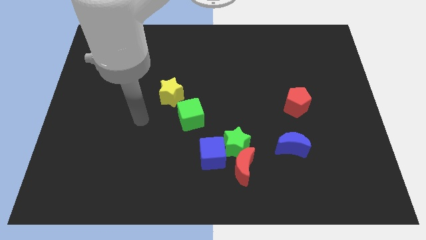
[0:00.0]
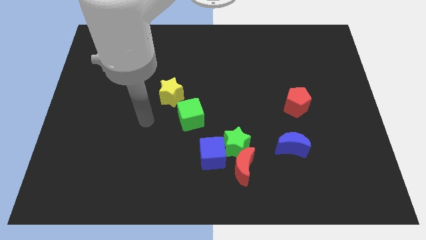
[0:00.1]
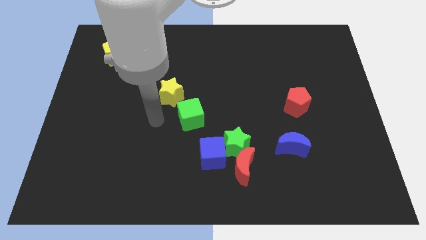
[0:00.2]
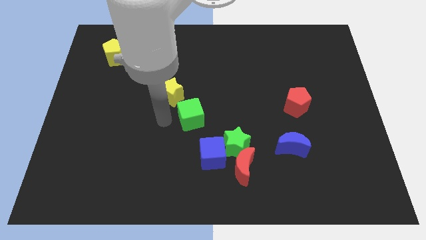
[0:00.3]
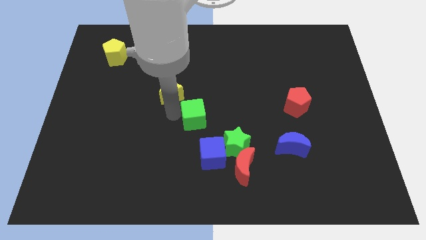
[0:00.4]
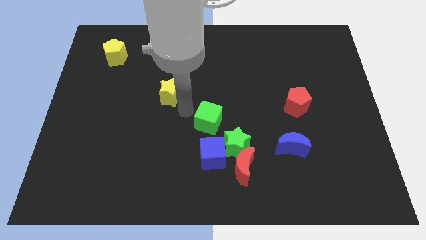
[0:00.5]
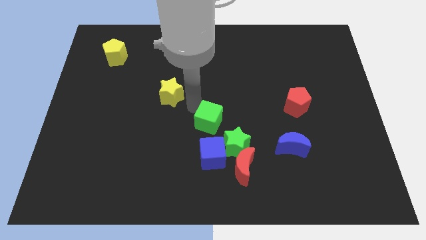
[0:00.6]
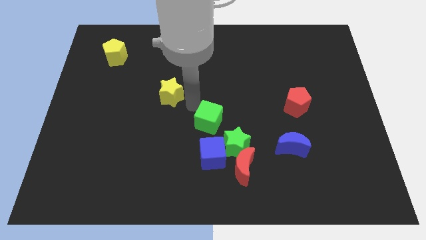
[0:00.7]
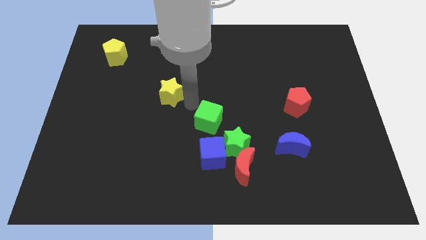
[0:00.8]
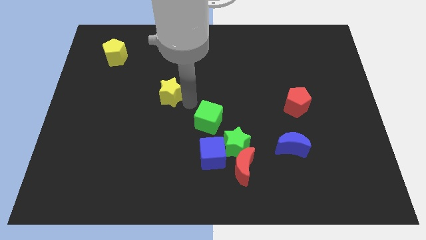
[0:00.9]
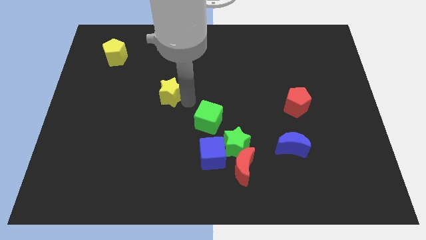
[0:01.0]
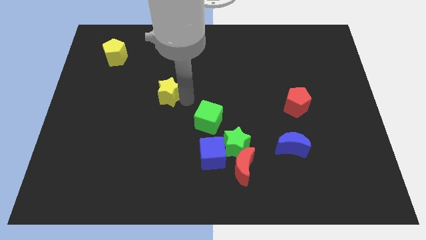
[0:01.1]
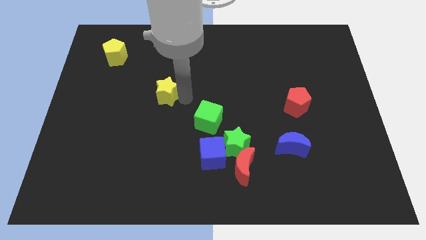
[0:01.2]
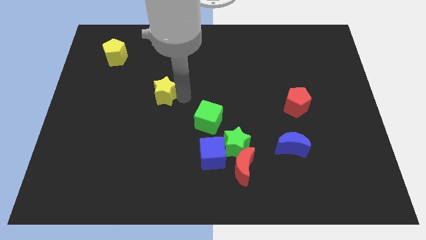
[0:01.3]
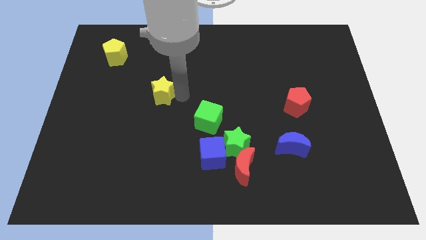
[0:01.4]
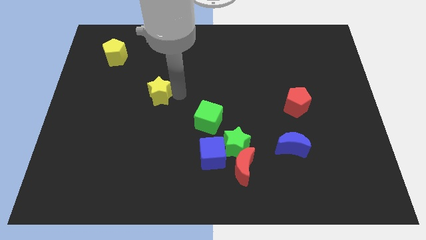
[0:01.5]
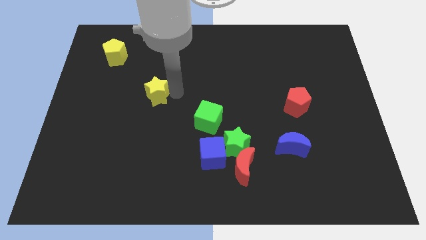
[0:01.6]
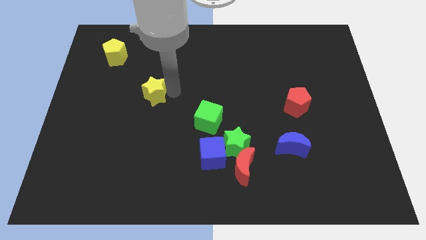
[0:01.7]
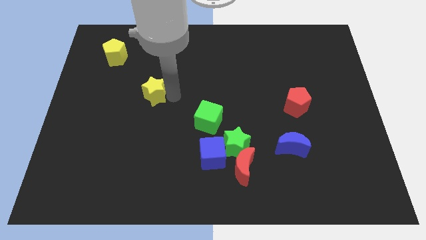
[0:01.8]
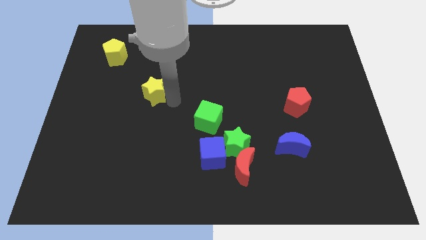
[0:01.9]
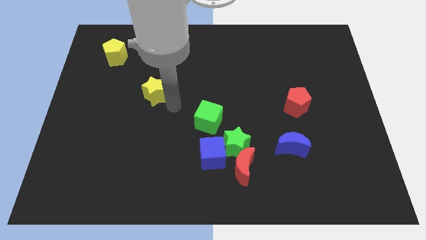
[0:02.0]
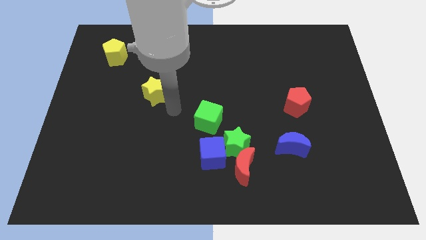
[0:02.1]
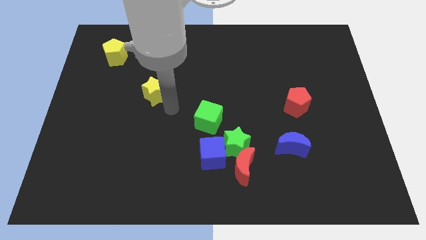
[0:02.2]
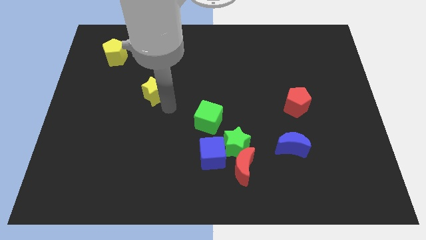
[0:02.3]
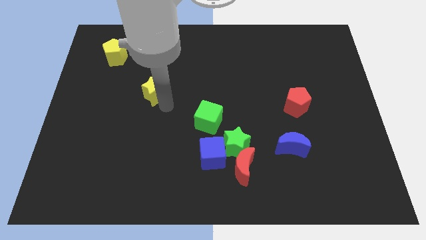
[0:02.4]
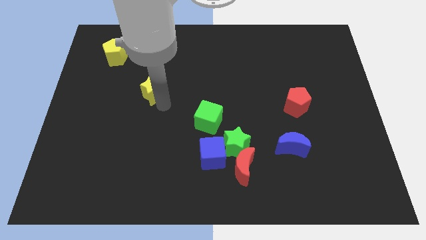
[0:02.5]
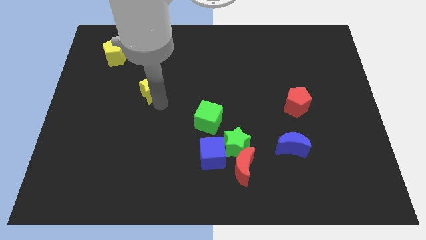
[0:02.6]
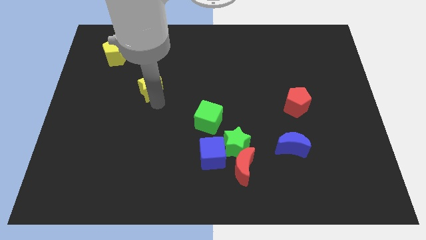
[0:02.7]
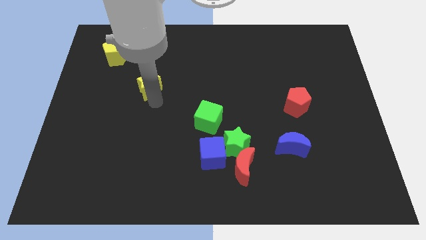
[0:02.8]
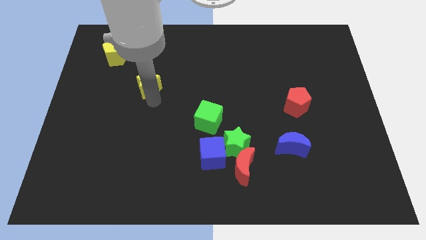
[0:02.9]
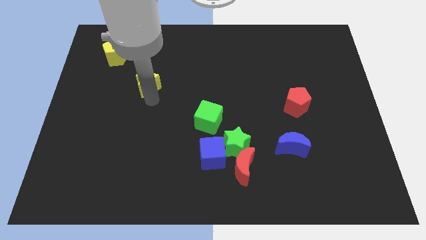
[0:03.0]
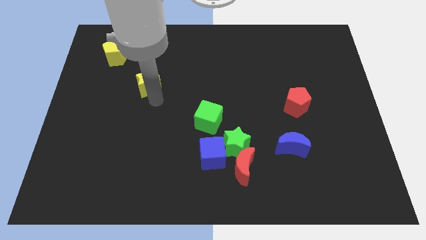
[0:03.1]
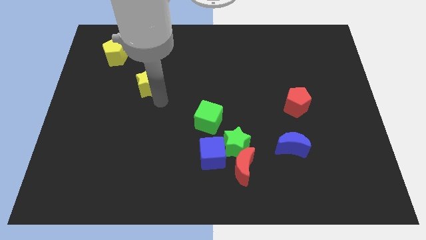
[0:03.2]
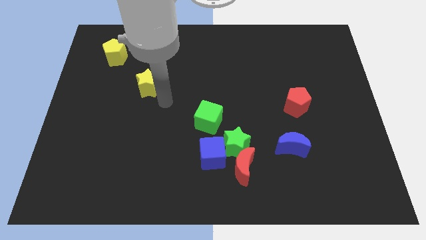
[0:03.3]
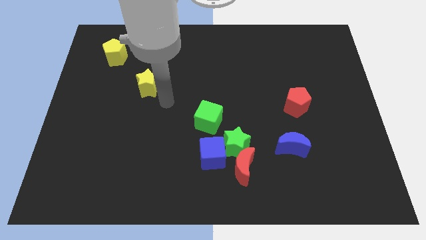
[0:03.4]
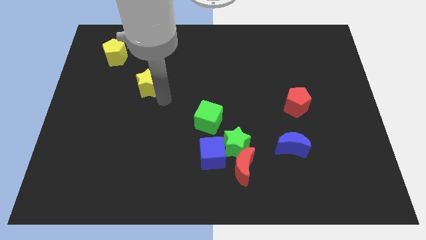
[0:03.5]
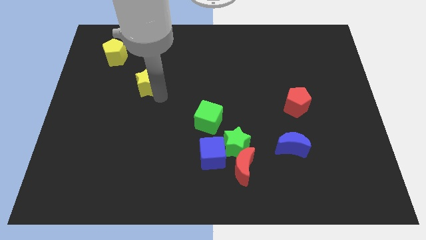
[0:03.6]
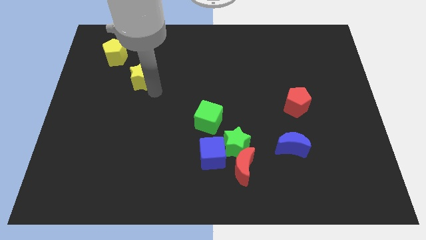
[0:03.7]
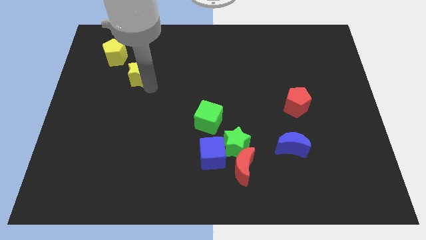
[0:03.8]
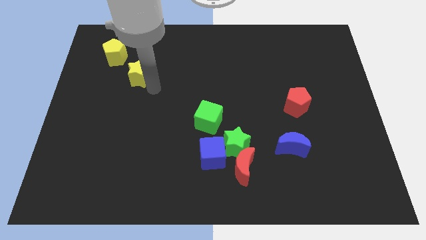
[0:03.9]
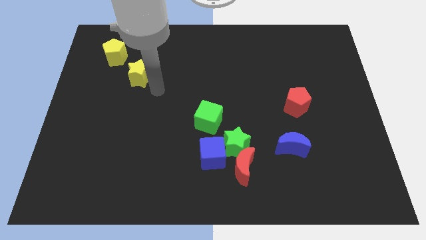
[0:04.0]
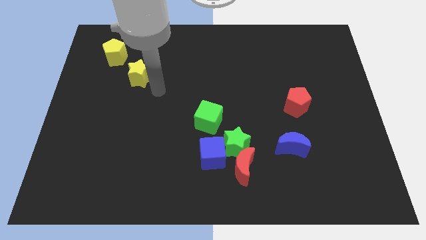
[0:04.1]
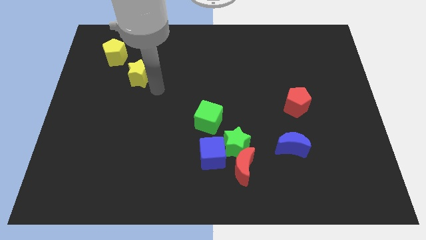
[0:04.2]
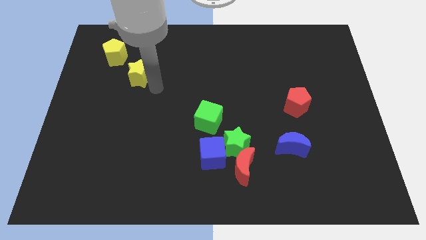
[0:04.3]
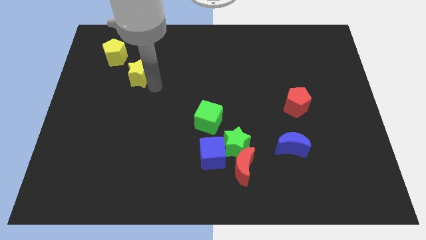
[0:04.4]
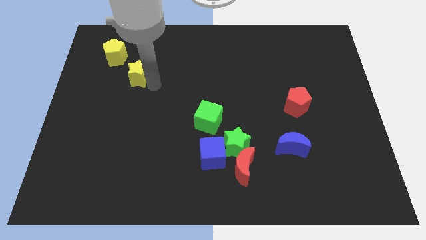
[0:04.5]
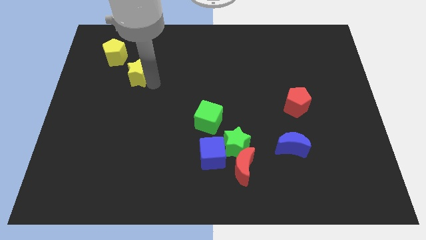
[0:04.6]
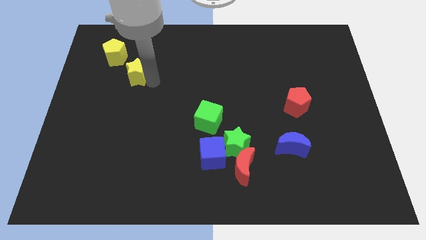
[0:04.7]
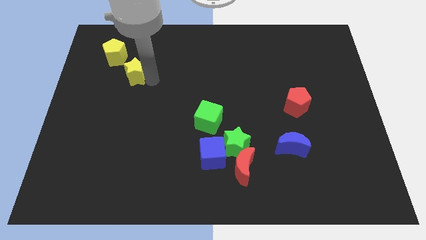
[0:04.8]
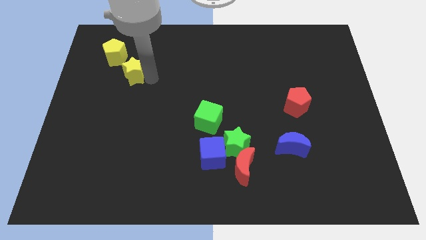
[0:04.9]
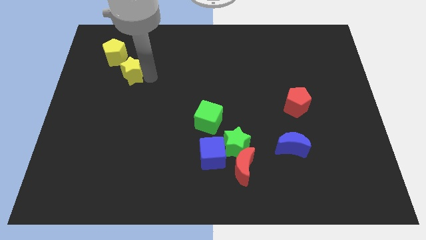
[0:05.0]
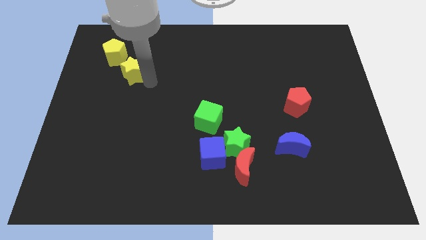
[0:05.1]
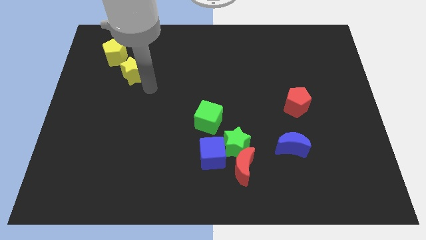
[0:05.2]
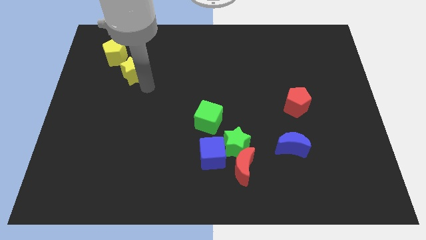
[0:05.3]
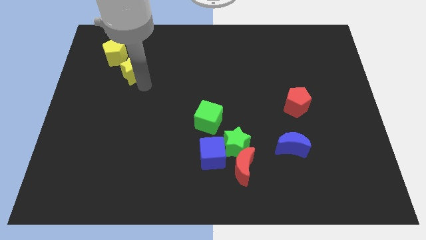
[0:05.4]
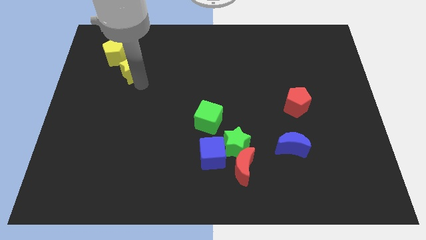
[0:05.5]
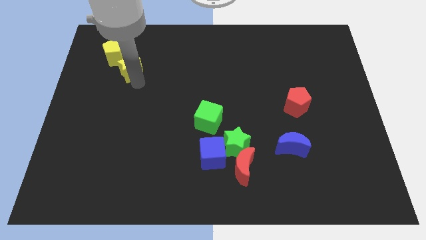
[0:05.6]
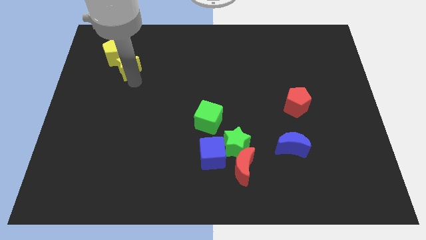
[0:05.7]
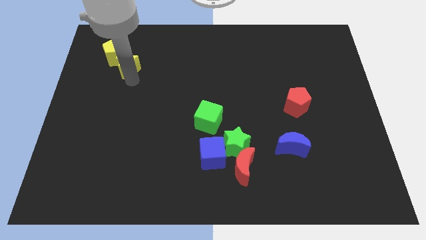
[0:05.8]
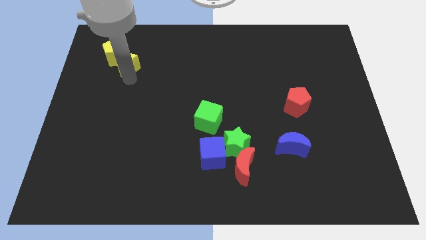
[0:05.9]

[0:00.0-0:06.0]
move the yellow star towards the yellow pentagon

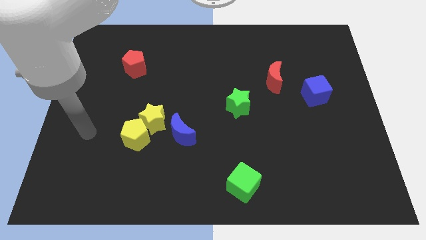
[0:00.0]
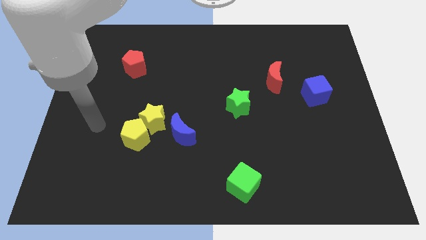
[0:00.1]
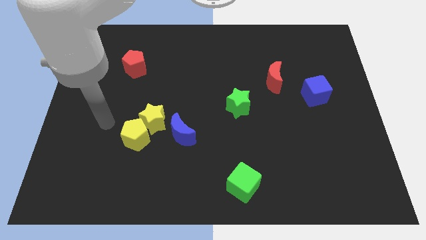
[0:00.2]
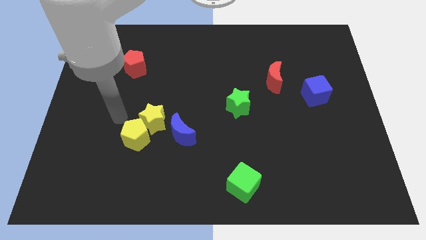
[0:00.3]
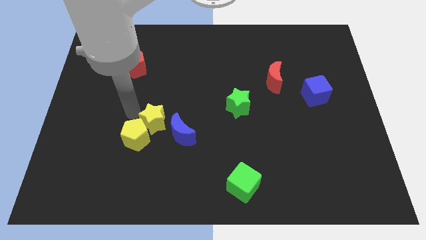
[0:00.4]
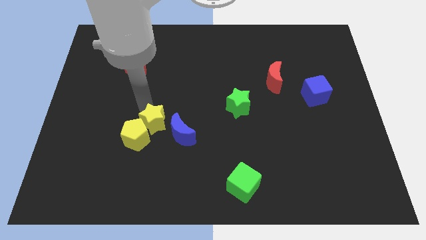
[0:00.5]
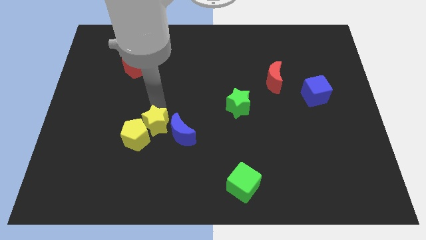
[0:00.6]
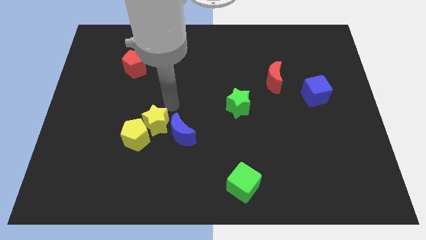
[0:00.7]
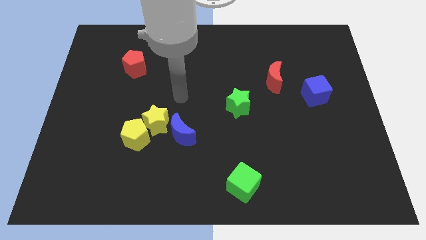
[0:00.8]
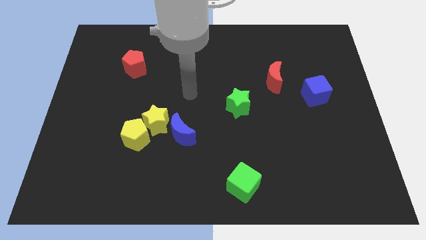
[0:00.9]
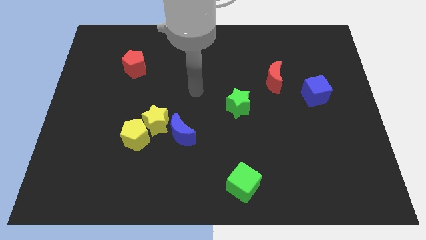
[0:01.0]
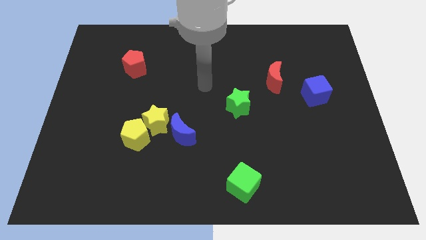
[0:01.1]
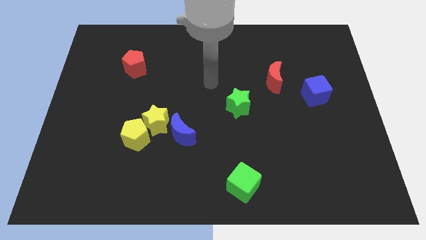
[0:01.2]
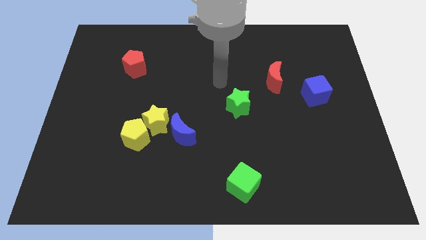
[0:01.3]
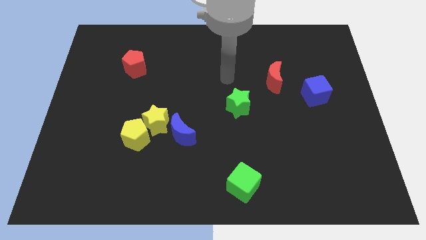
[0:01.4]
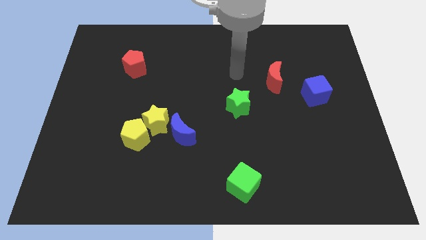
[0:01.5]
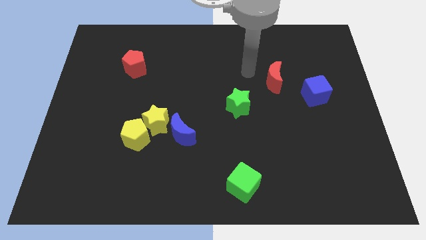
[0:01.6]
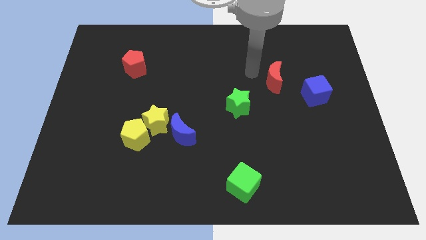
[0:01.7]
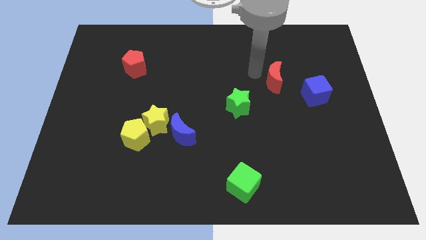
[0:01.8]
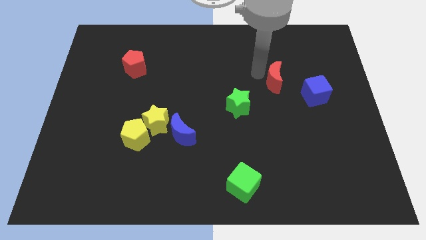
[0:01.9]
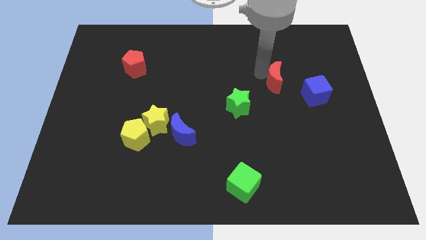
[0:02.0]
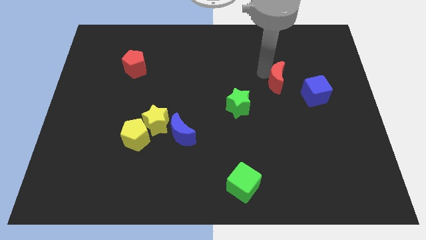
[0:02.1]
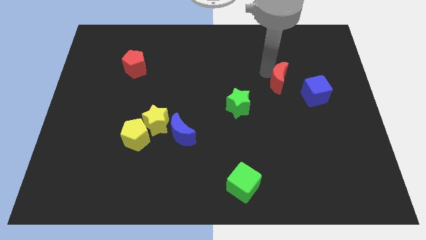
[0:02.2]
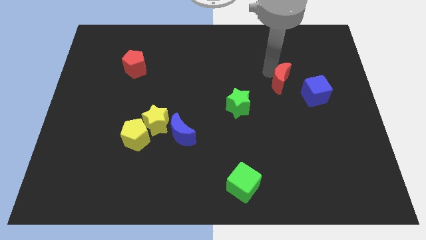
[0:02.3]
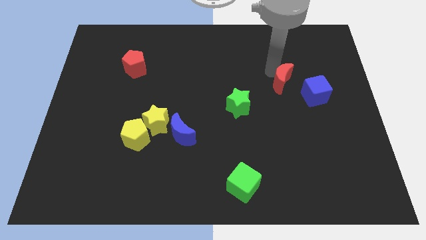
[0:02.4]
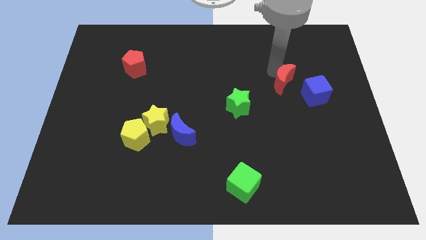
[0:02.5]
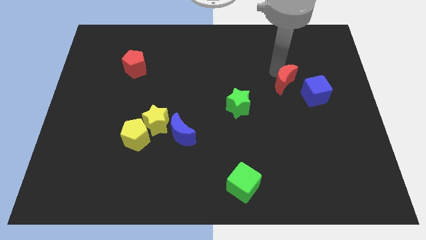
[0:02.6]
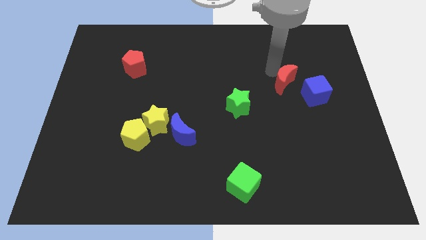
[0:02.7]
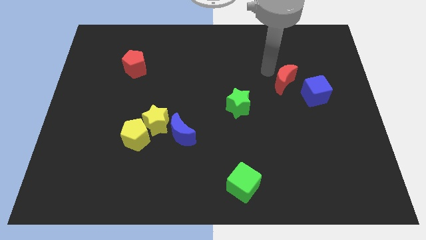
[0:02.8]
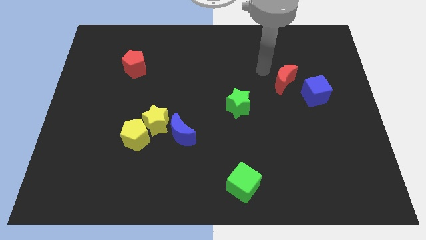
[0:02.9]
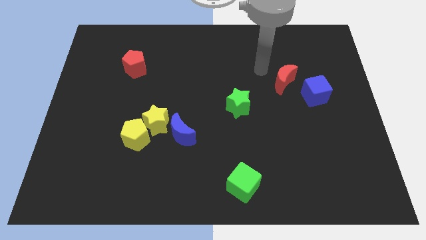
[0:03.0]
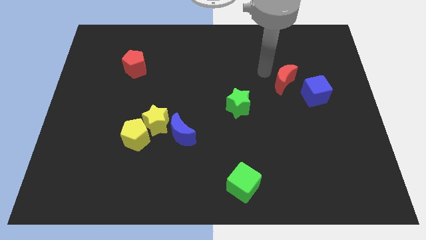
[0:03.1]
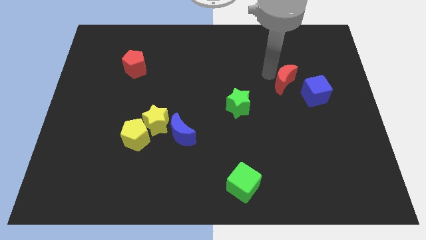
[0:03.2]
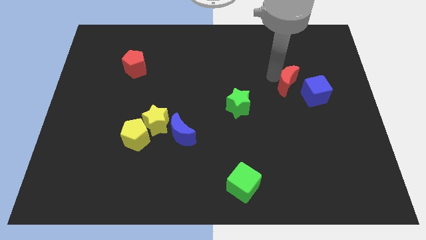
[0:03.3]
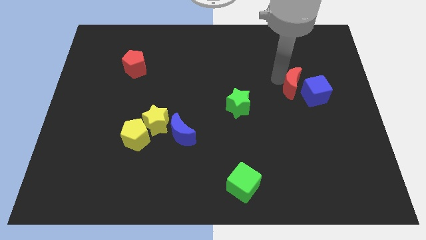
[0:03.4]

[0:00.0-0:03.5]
put the red moon to the blue cube
